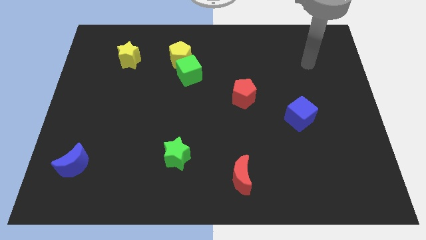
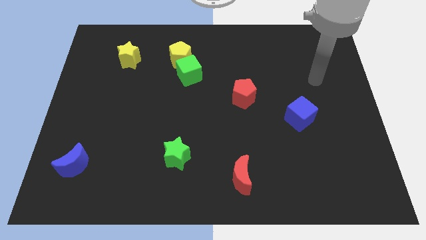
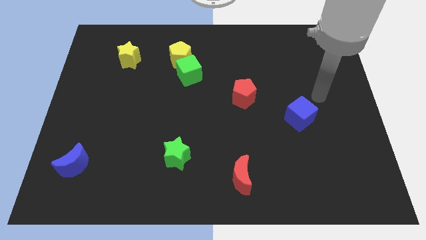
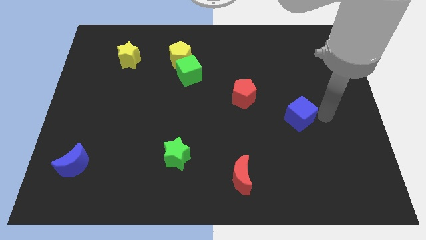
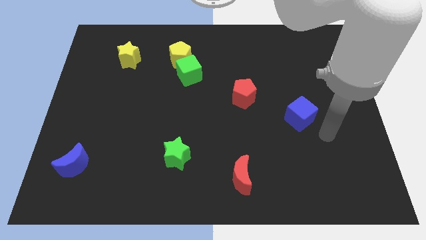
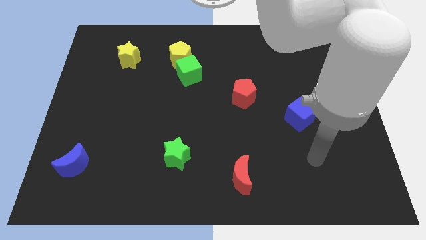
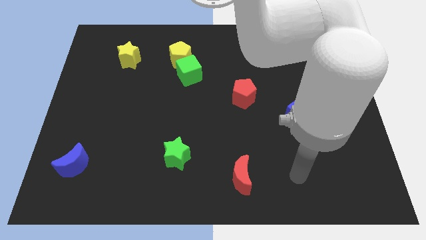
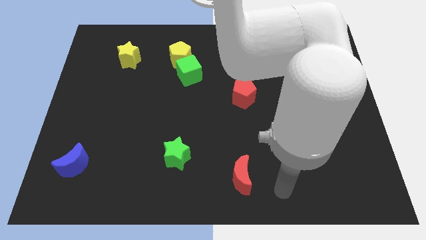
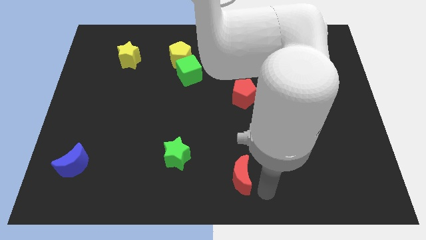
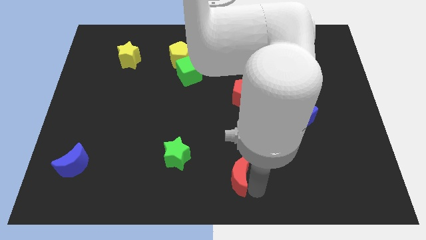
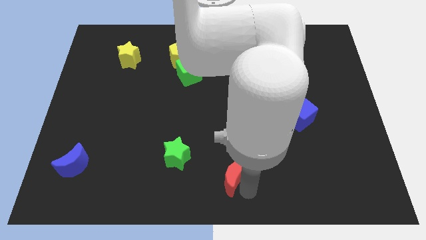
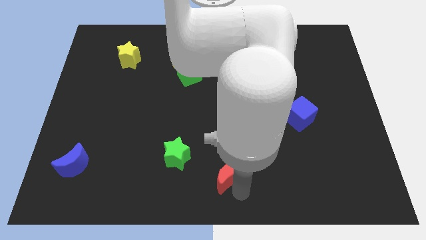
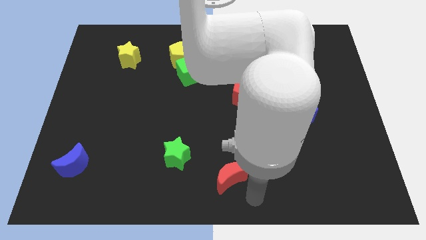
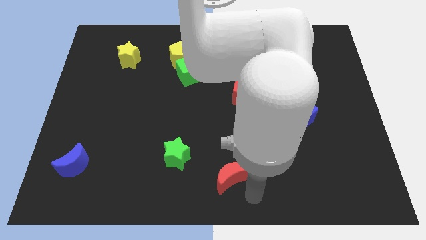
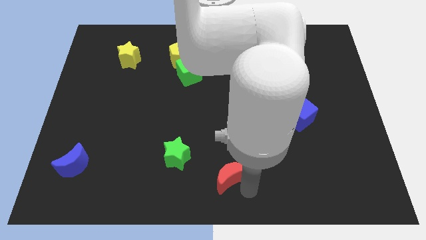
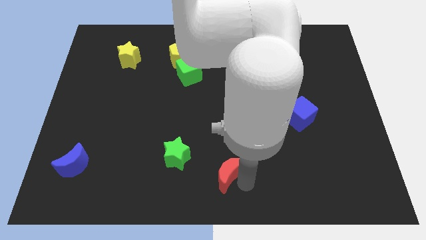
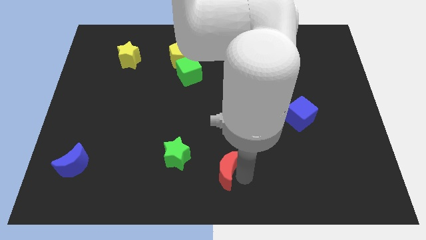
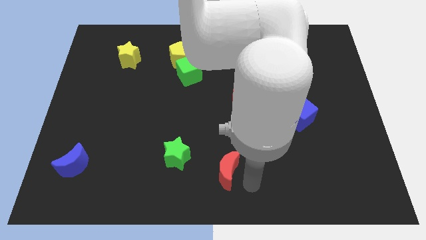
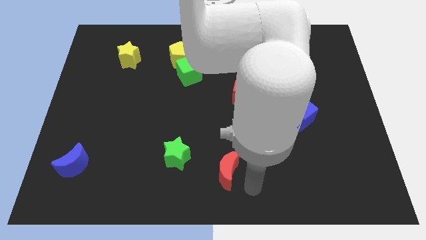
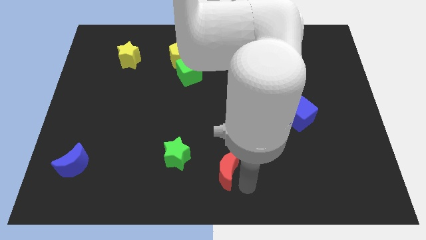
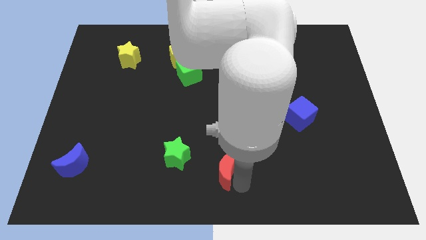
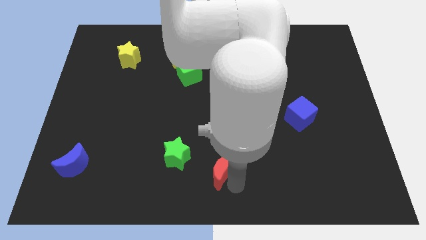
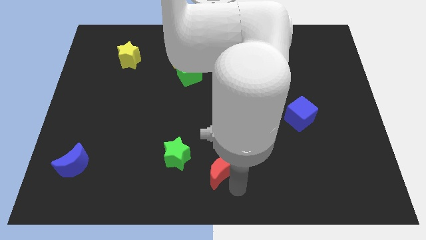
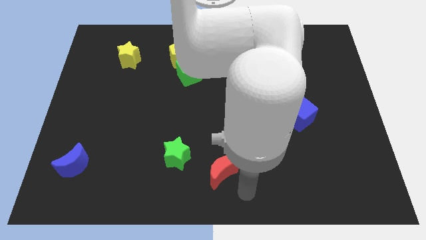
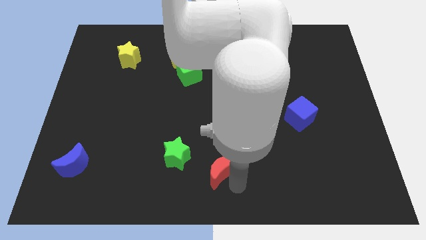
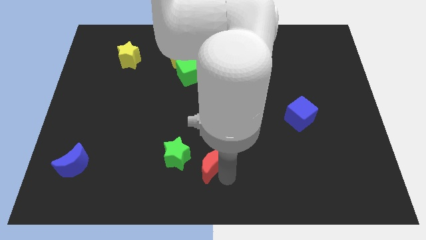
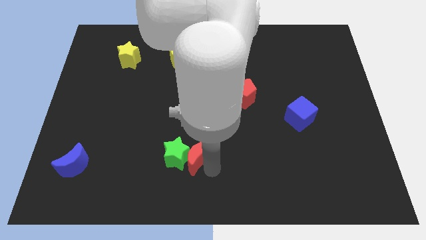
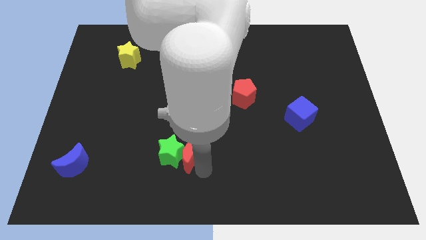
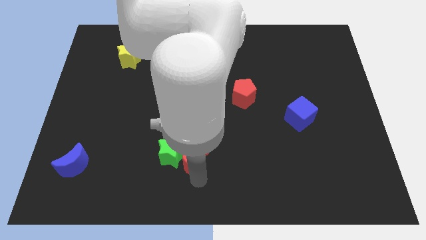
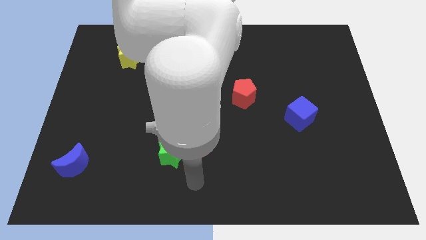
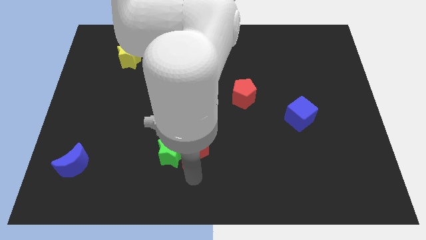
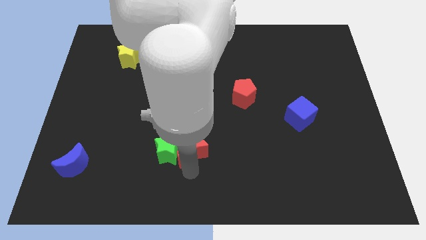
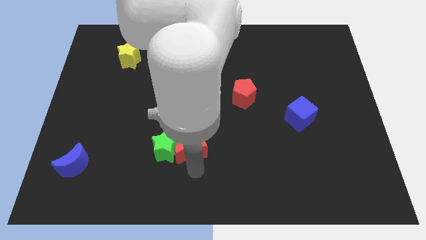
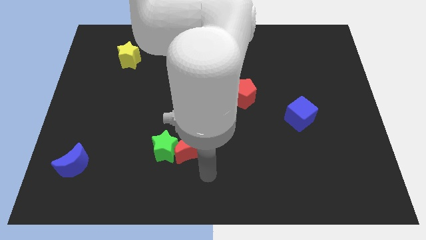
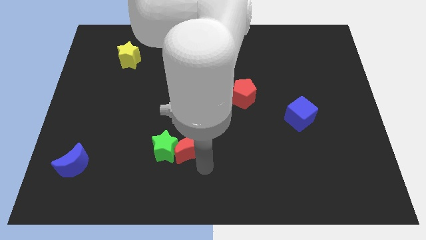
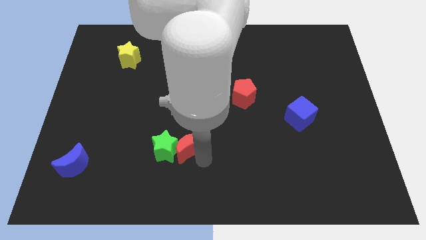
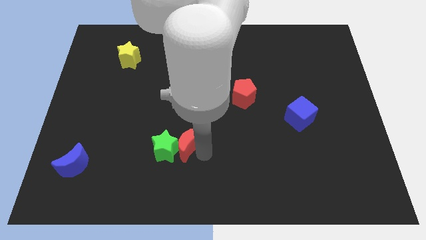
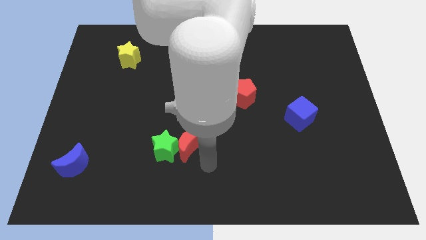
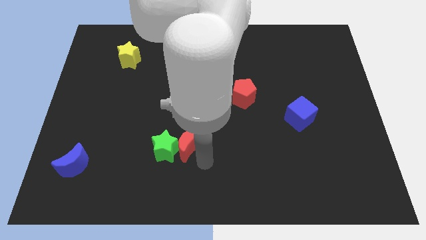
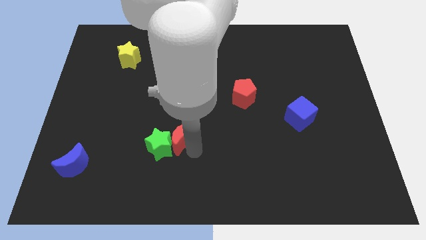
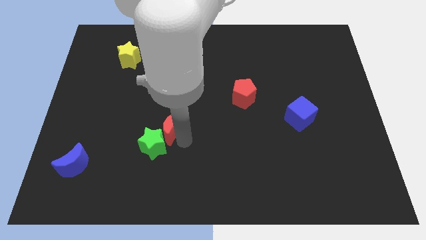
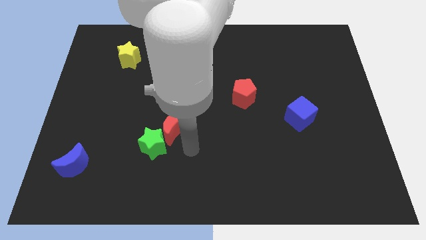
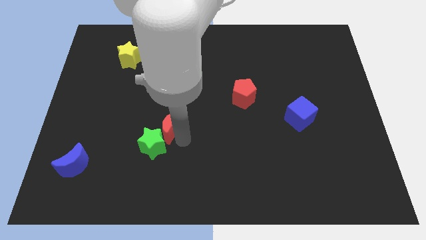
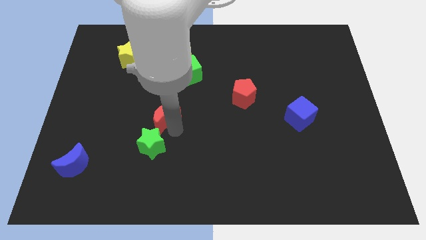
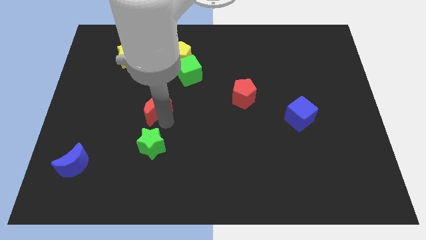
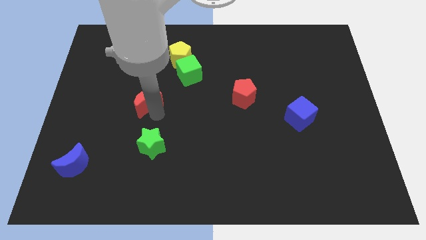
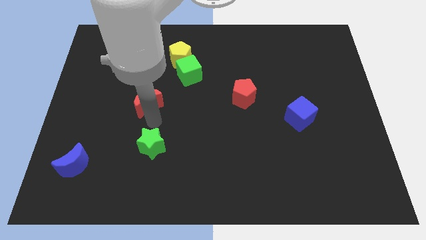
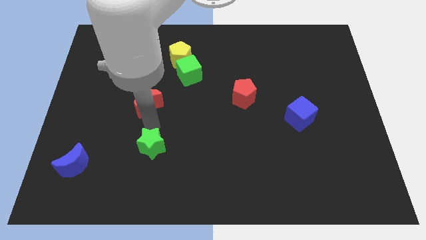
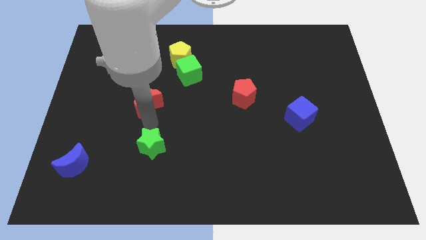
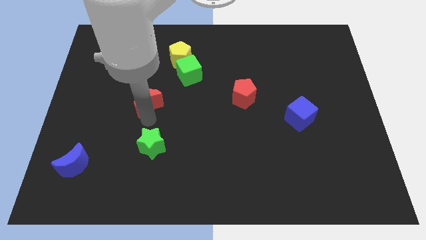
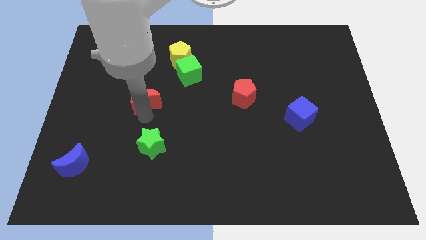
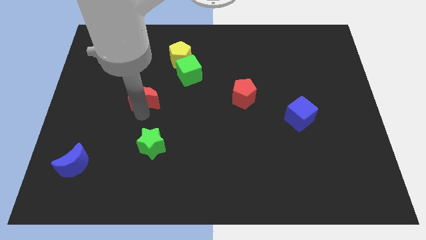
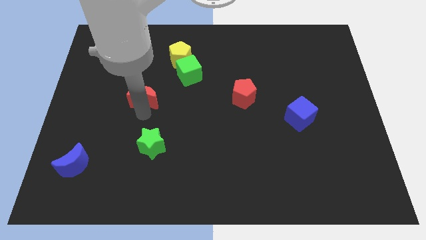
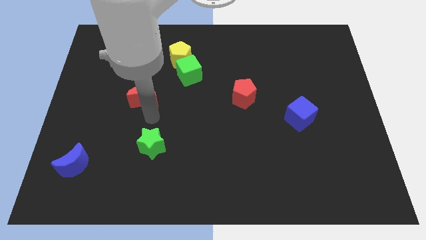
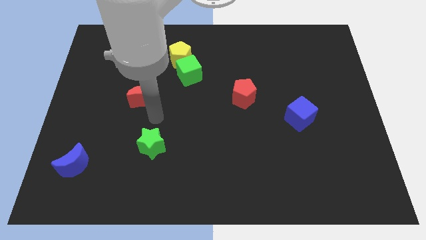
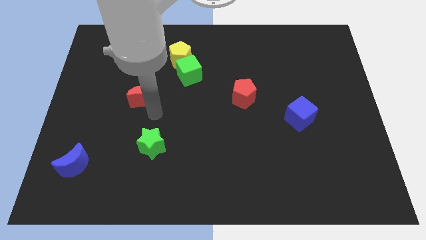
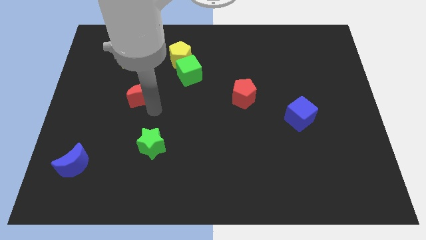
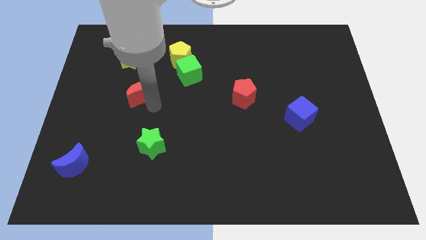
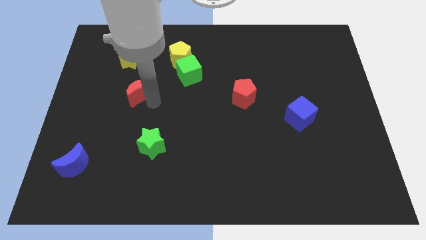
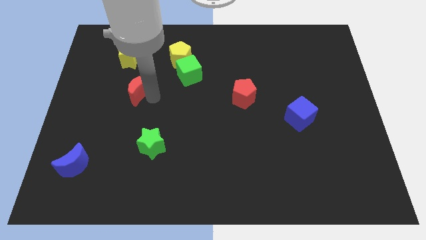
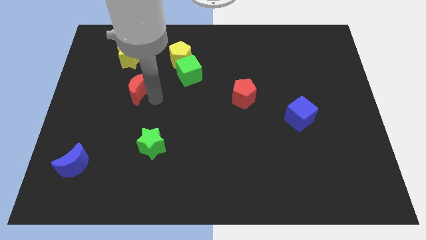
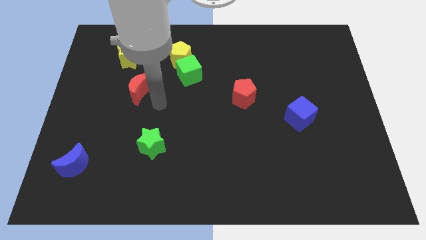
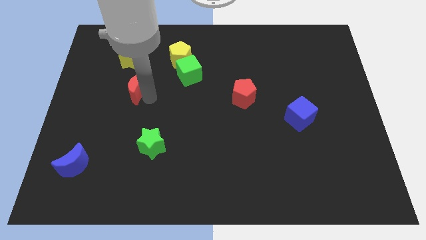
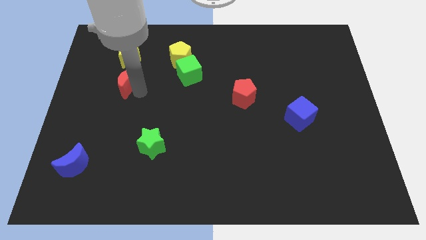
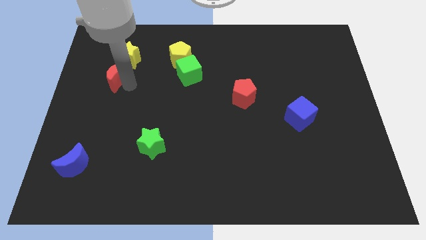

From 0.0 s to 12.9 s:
put the red moon to the bottom left side of the yellow star

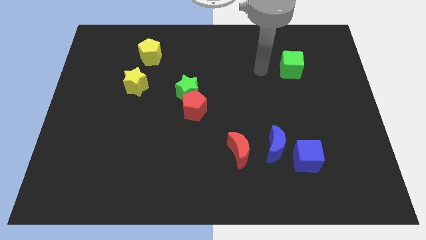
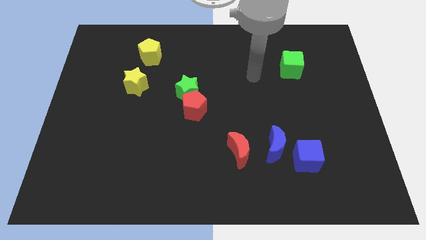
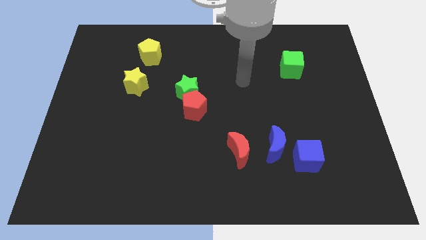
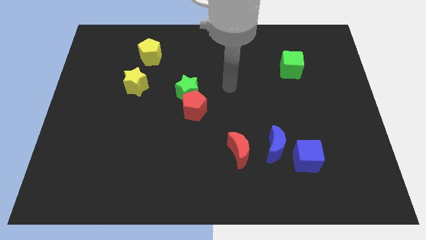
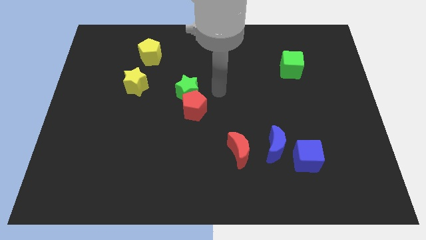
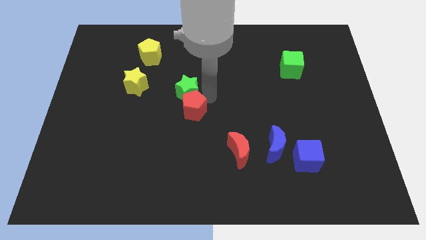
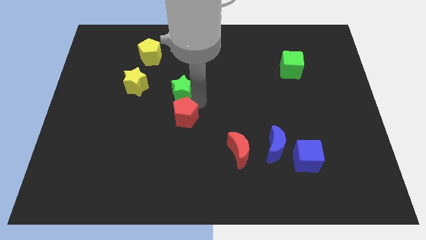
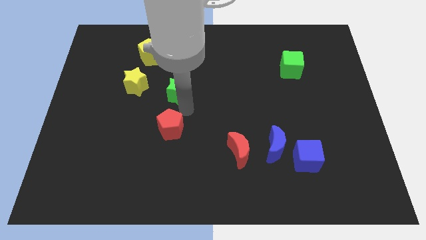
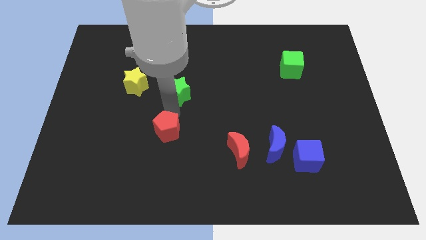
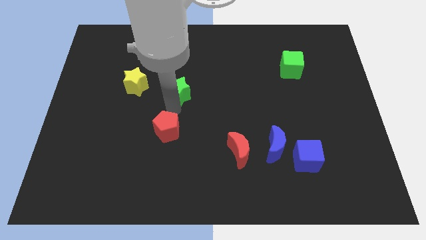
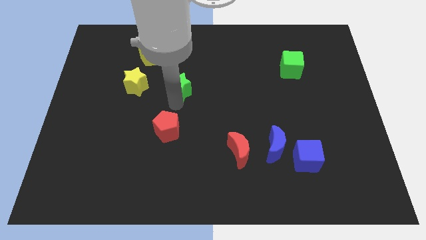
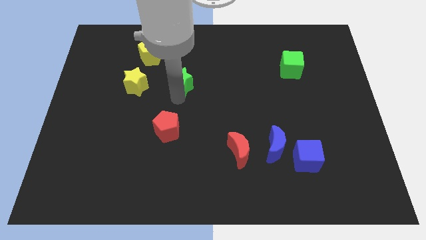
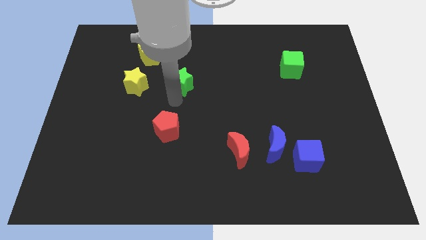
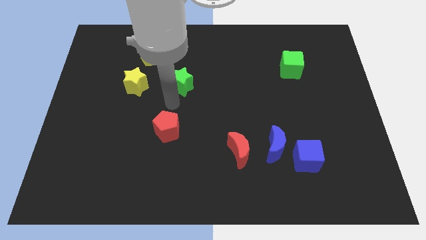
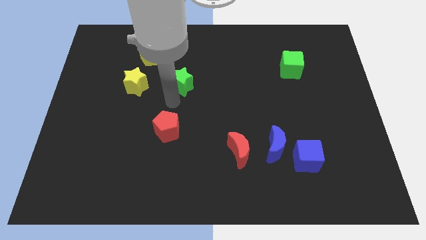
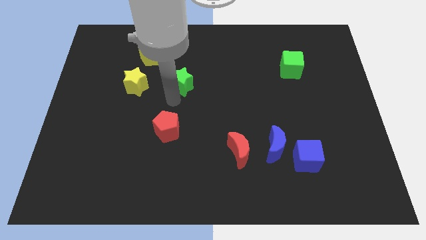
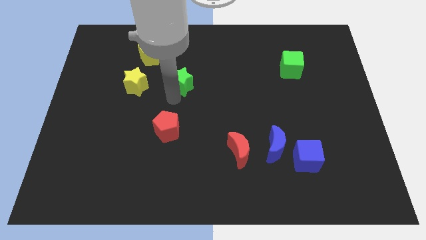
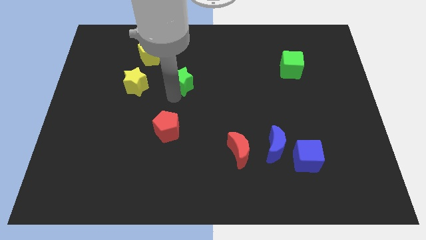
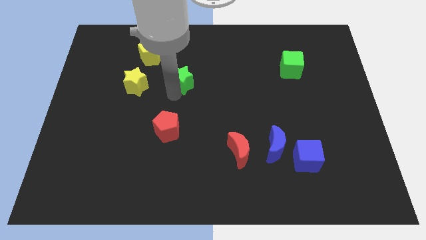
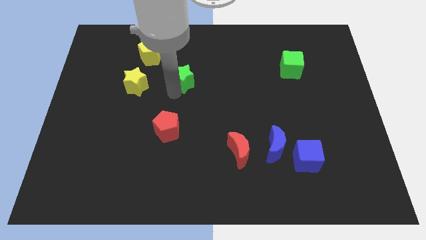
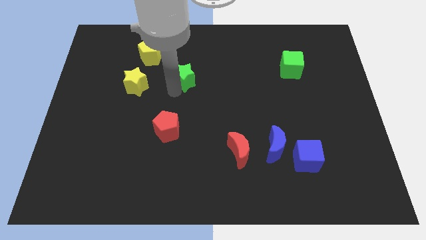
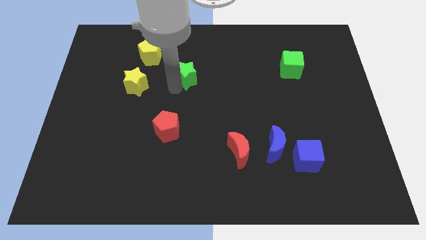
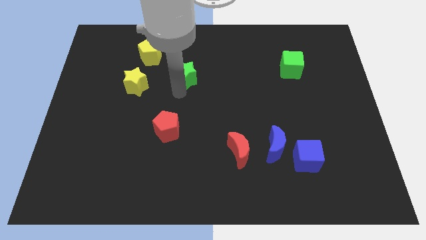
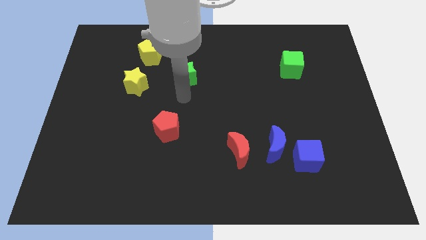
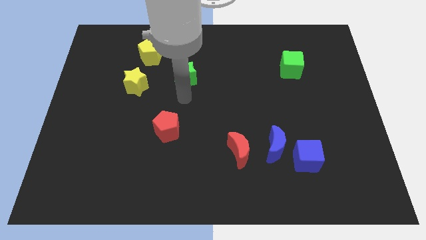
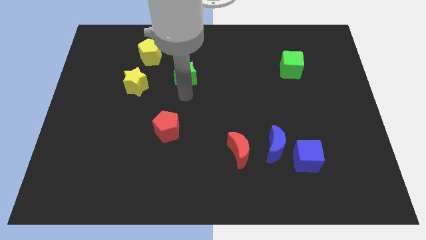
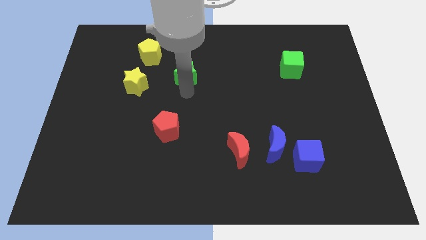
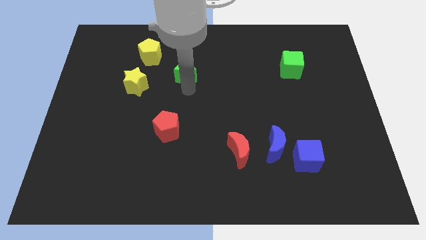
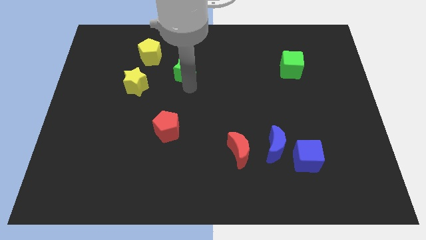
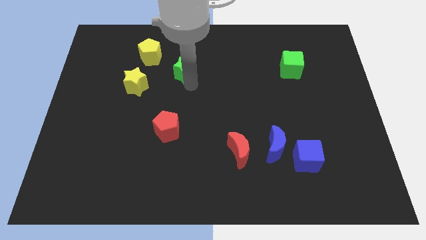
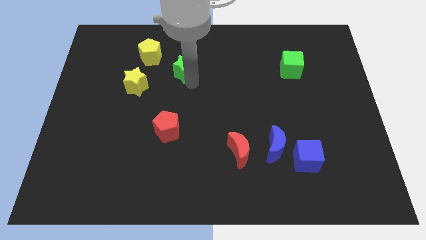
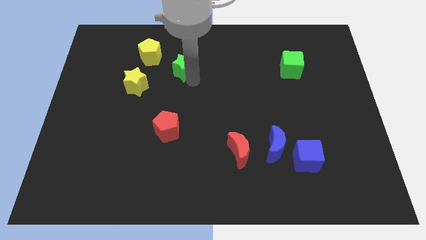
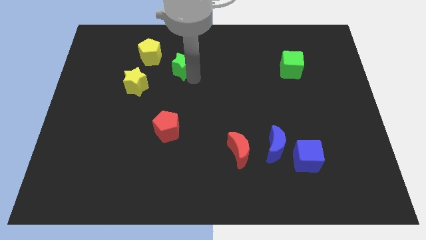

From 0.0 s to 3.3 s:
push the green star right of the yellow pentagon
